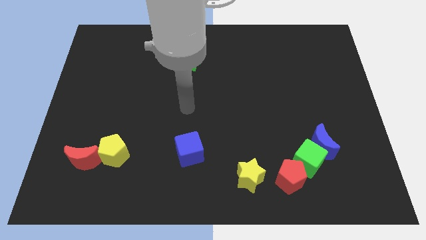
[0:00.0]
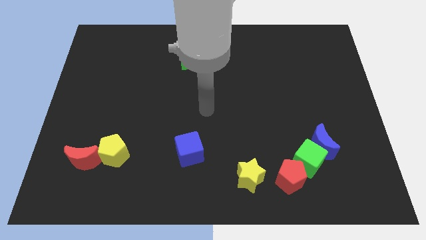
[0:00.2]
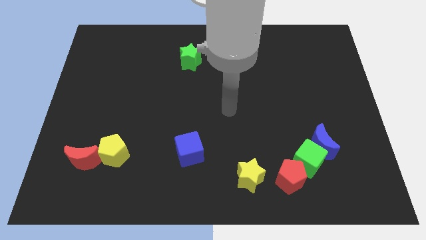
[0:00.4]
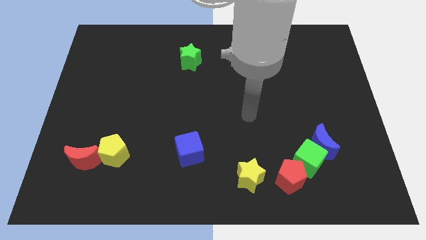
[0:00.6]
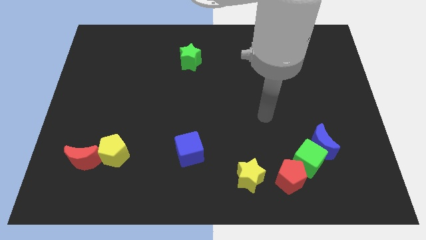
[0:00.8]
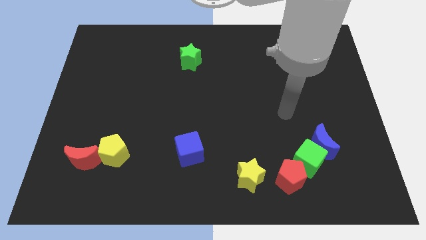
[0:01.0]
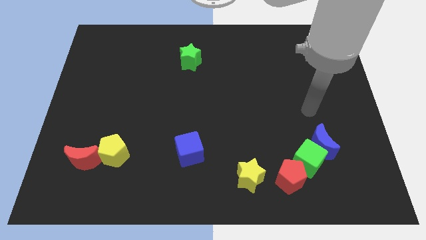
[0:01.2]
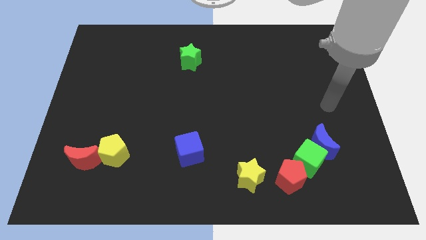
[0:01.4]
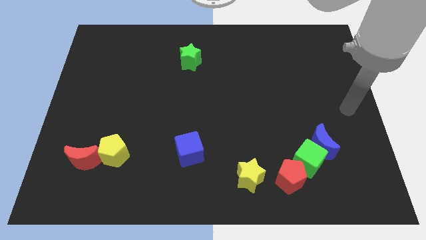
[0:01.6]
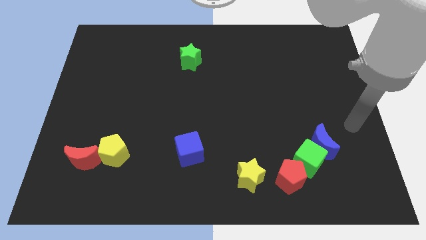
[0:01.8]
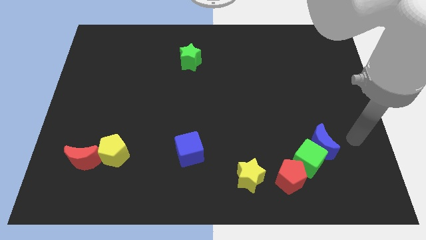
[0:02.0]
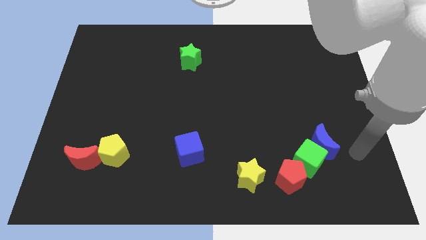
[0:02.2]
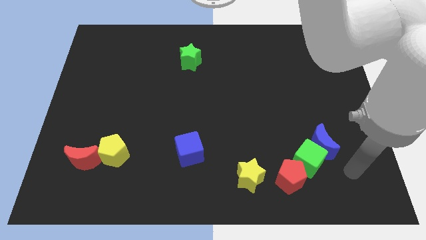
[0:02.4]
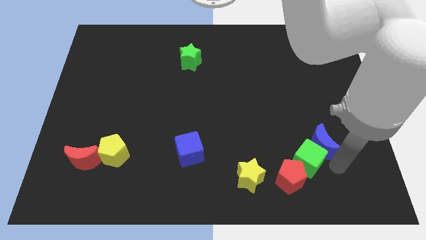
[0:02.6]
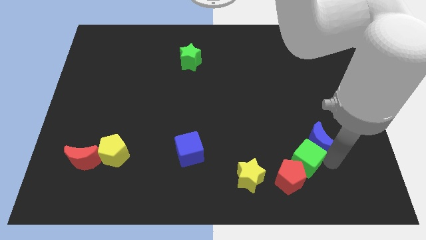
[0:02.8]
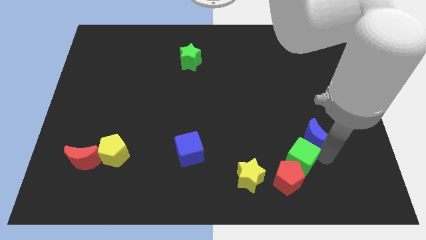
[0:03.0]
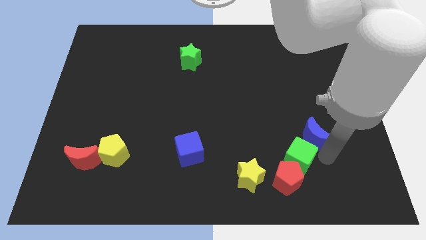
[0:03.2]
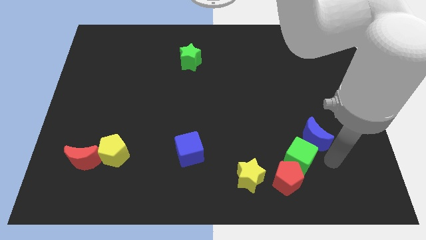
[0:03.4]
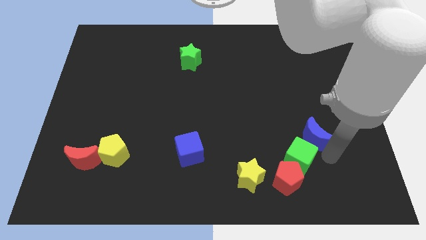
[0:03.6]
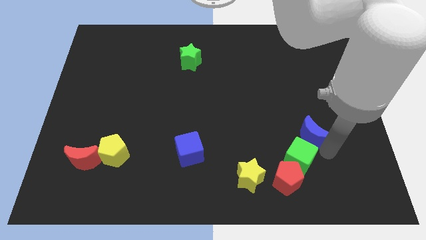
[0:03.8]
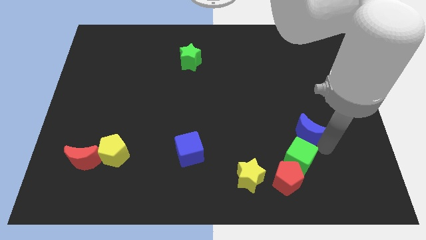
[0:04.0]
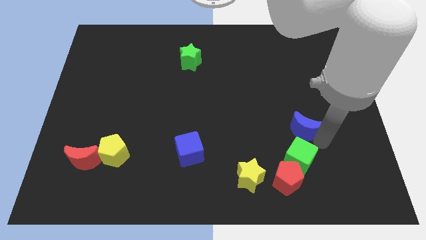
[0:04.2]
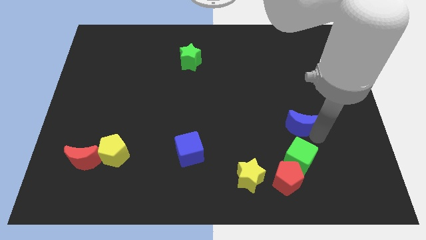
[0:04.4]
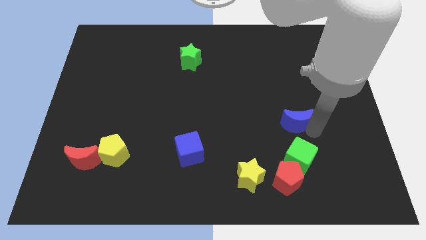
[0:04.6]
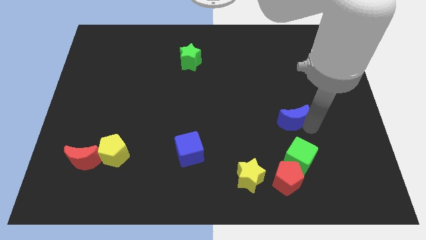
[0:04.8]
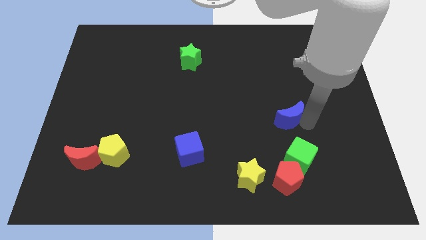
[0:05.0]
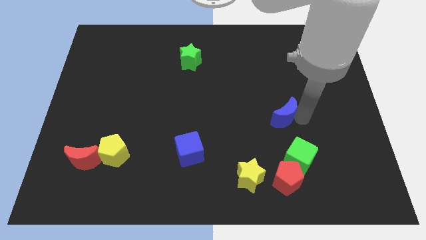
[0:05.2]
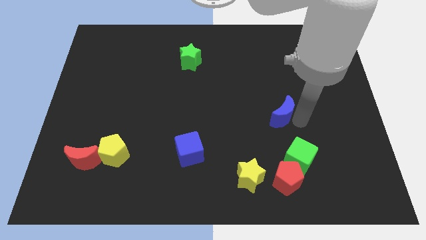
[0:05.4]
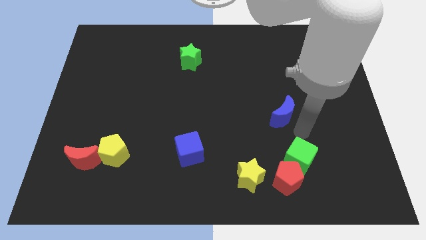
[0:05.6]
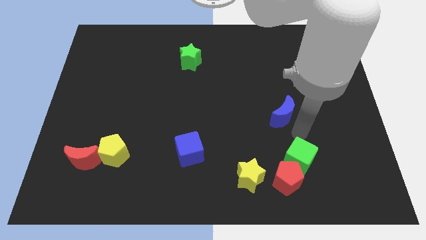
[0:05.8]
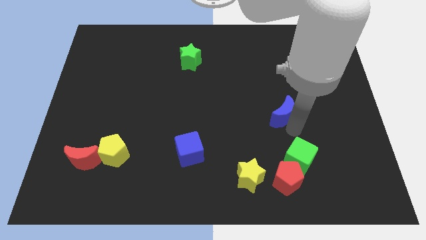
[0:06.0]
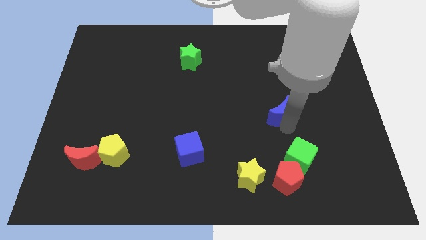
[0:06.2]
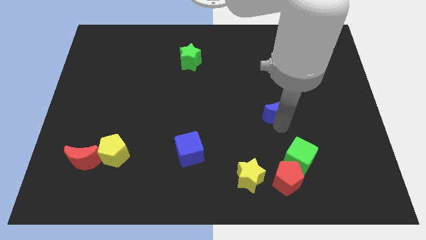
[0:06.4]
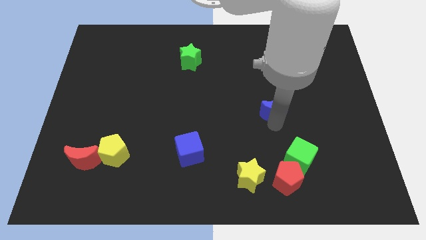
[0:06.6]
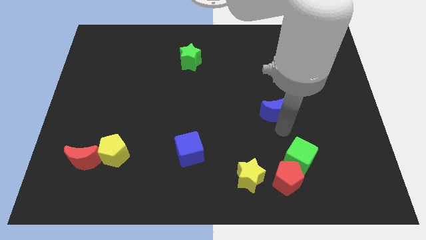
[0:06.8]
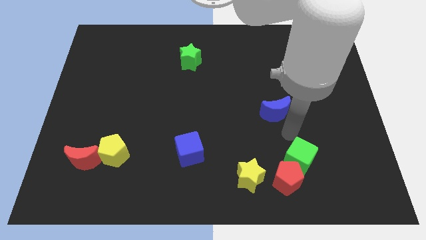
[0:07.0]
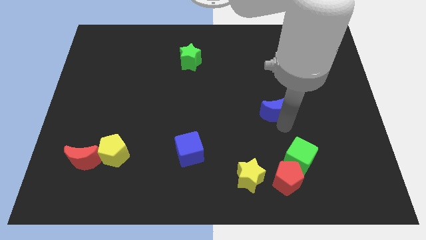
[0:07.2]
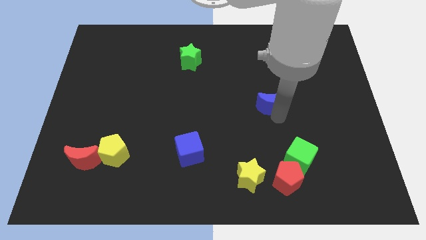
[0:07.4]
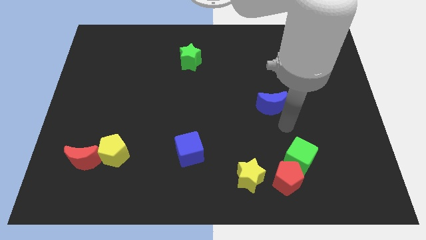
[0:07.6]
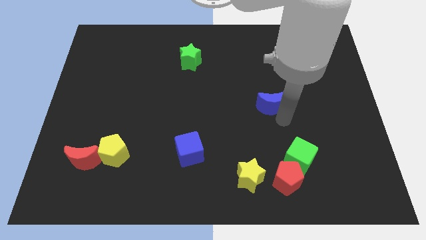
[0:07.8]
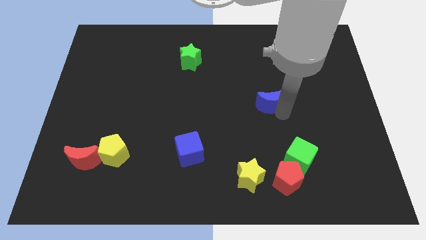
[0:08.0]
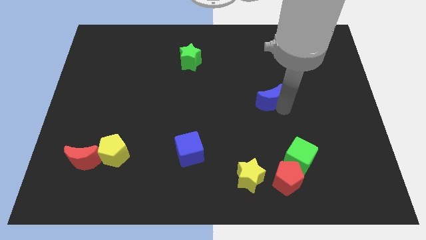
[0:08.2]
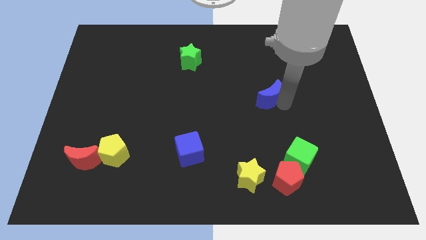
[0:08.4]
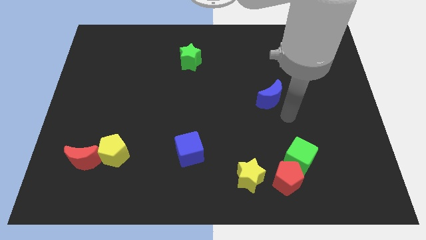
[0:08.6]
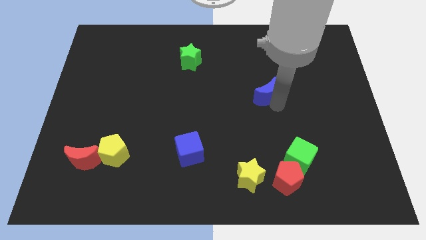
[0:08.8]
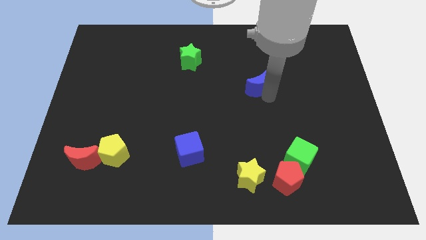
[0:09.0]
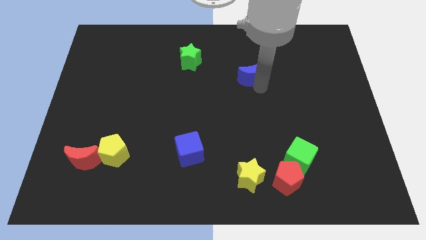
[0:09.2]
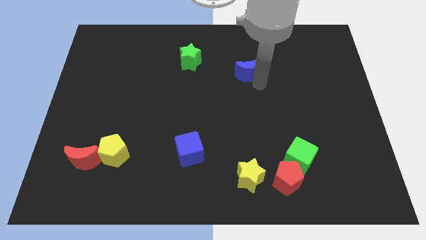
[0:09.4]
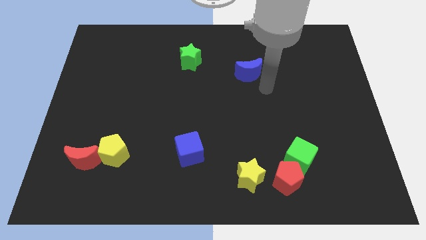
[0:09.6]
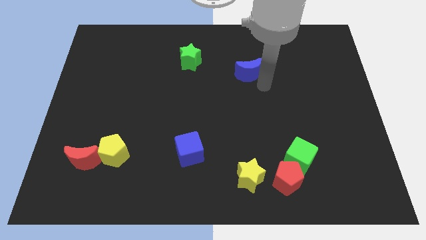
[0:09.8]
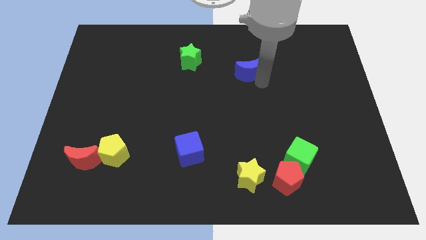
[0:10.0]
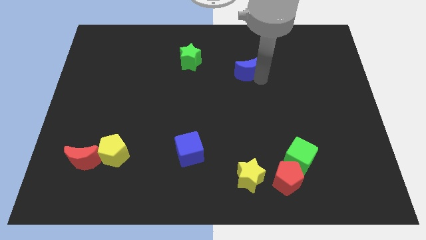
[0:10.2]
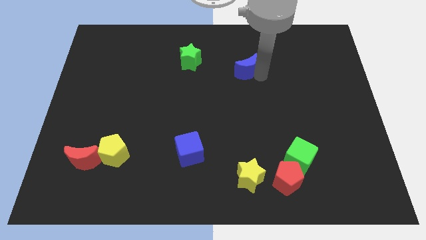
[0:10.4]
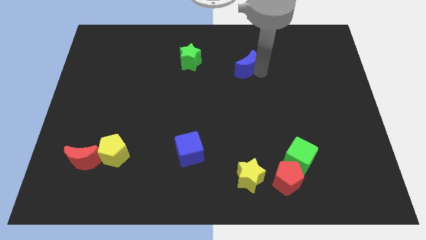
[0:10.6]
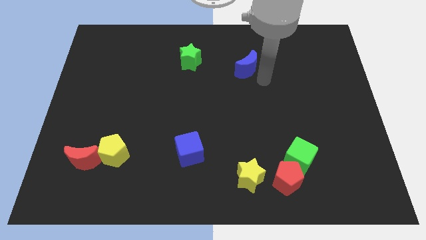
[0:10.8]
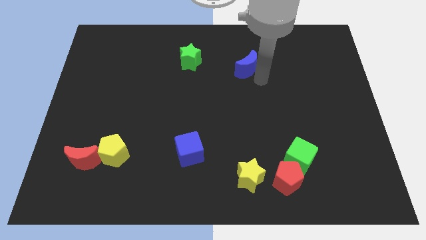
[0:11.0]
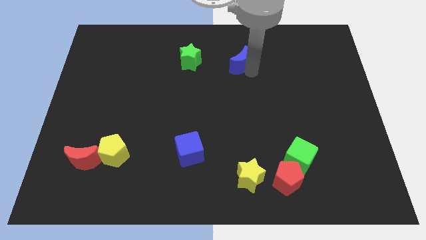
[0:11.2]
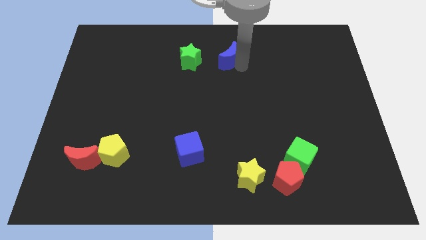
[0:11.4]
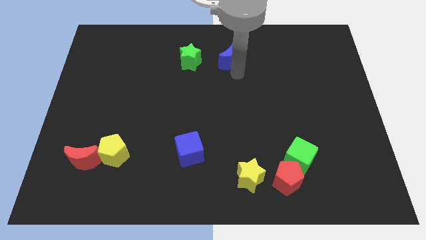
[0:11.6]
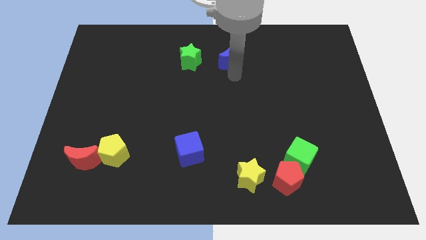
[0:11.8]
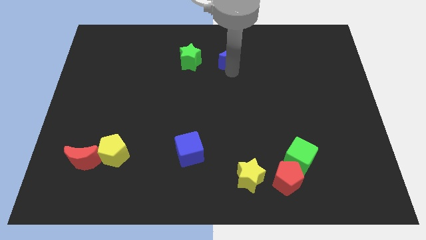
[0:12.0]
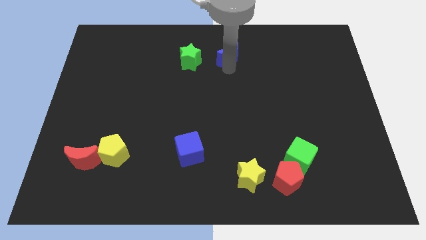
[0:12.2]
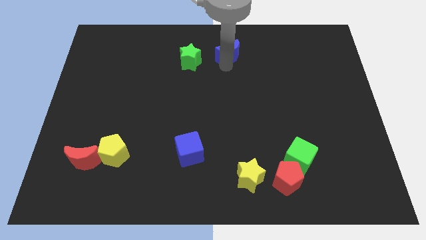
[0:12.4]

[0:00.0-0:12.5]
move the blue moon to the top

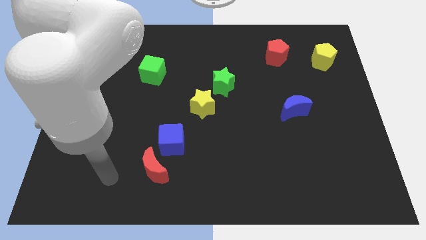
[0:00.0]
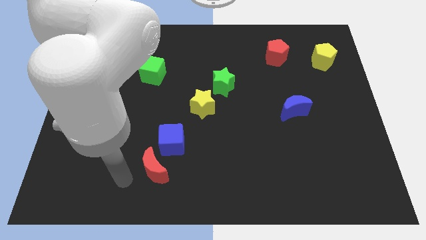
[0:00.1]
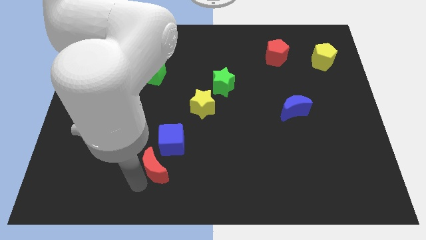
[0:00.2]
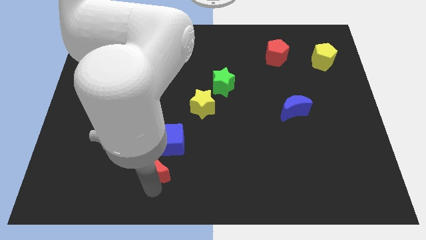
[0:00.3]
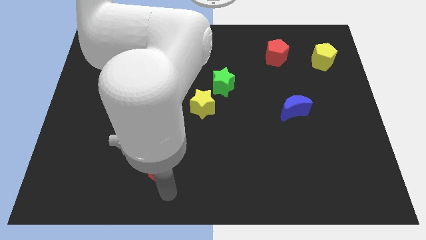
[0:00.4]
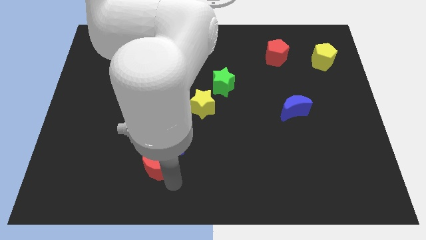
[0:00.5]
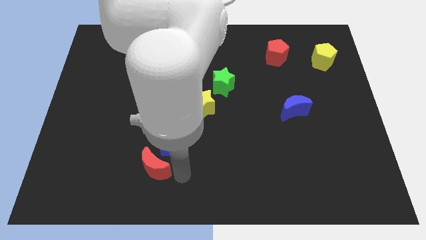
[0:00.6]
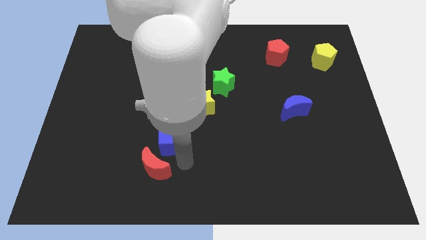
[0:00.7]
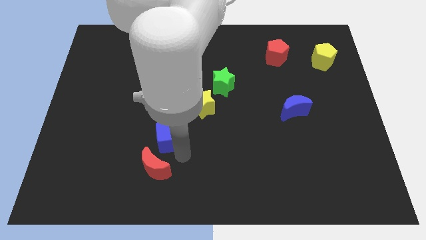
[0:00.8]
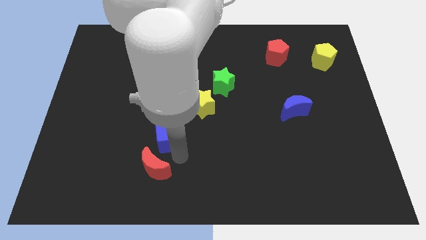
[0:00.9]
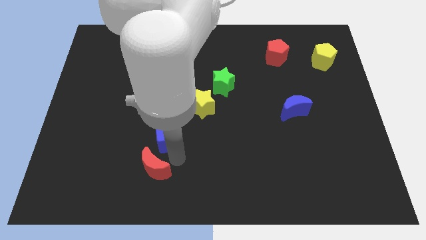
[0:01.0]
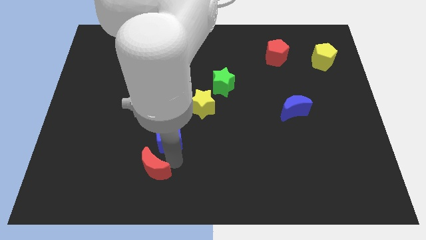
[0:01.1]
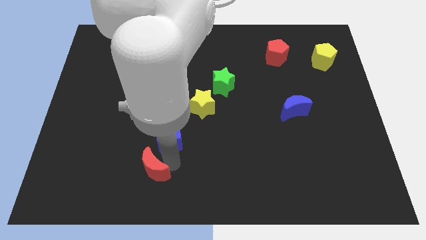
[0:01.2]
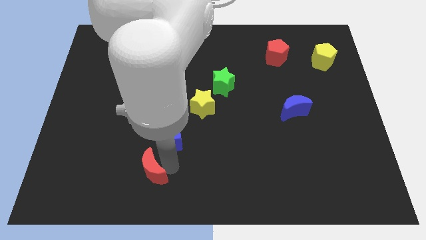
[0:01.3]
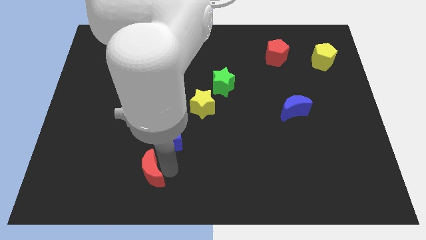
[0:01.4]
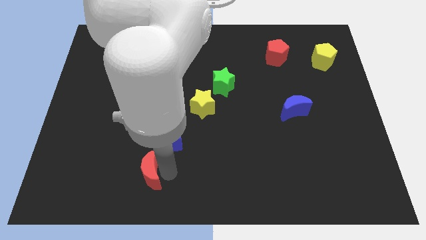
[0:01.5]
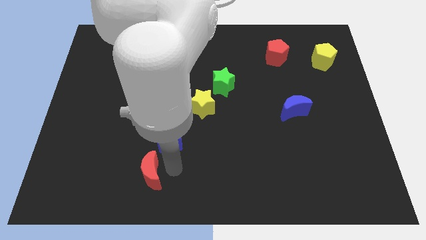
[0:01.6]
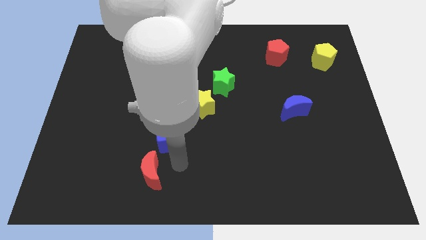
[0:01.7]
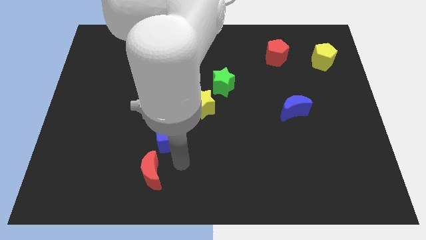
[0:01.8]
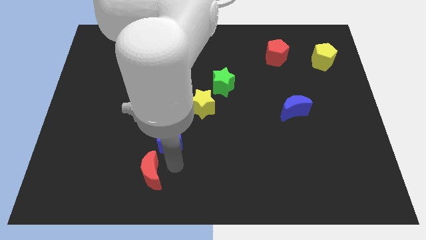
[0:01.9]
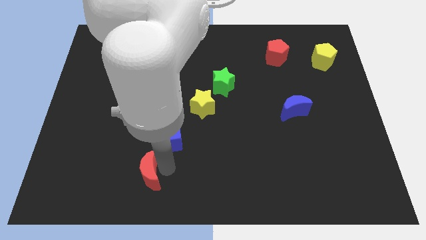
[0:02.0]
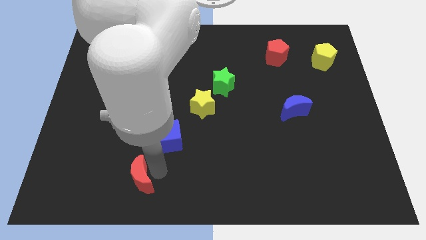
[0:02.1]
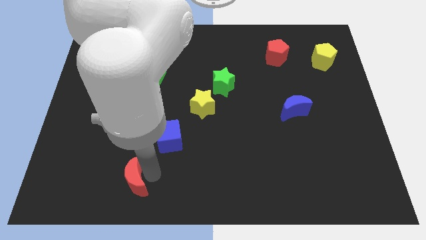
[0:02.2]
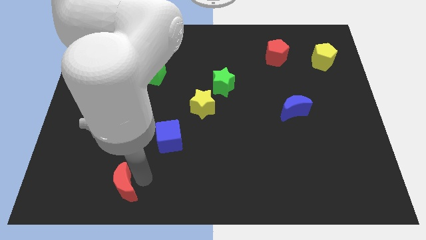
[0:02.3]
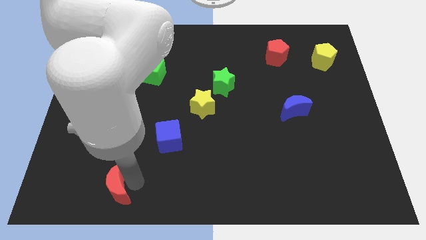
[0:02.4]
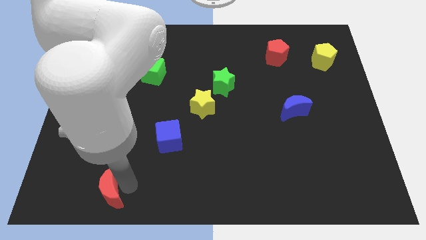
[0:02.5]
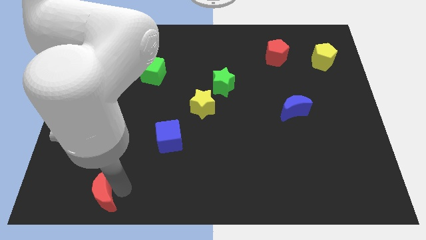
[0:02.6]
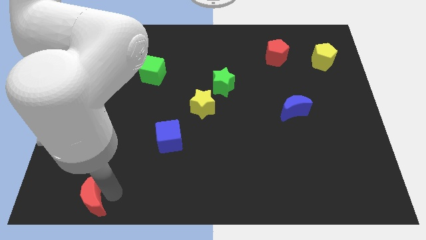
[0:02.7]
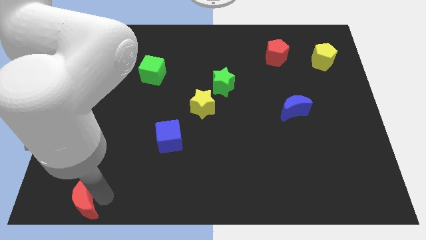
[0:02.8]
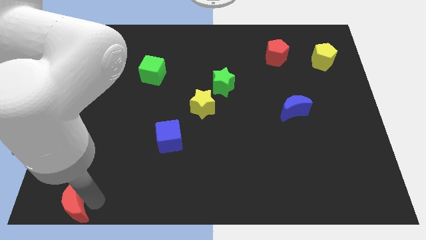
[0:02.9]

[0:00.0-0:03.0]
move the red moon to the bottom left corner
